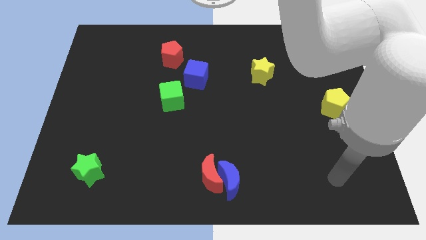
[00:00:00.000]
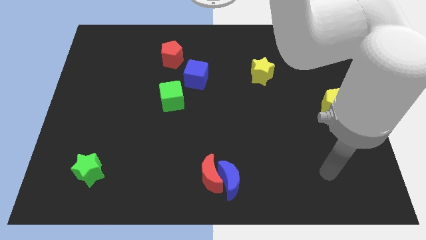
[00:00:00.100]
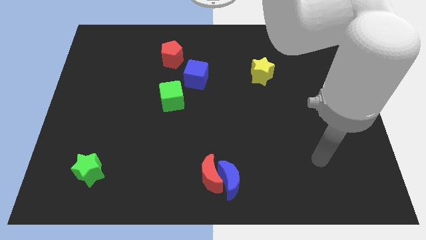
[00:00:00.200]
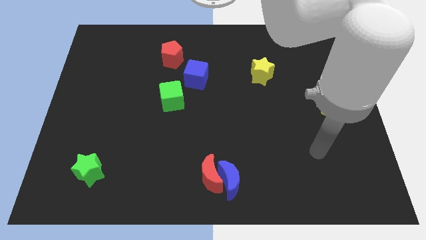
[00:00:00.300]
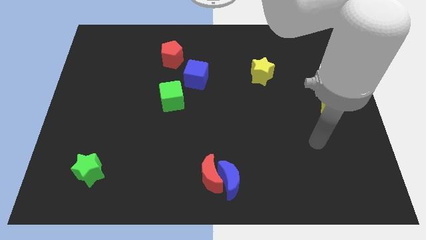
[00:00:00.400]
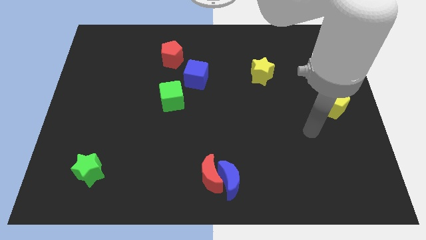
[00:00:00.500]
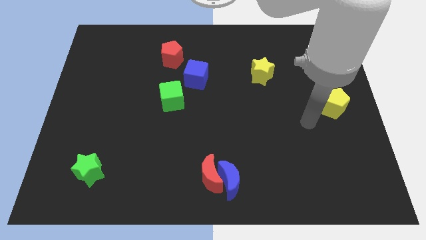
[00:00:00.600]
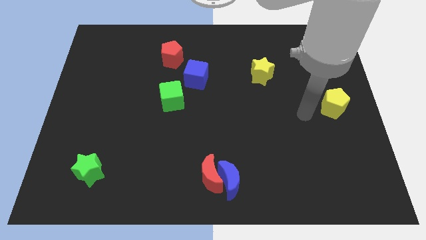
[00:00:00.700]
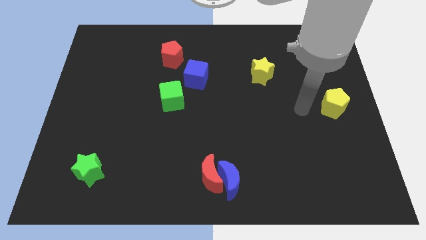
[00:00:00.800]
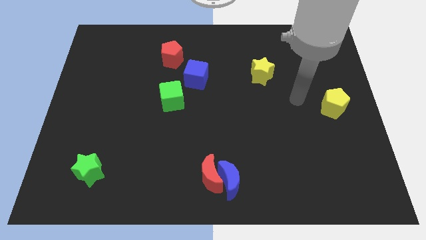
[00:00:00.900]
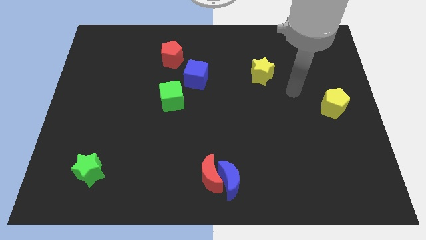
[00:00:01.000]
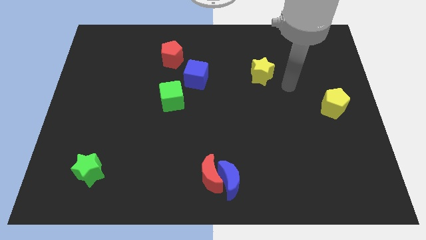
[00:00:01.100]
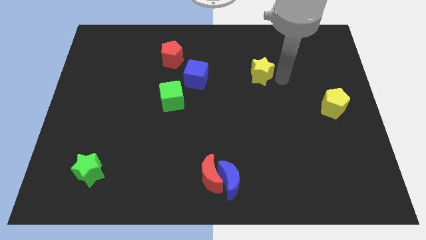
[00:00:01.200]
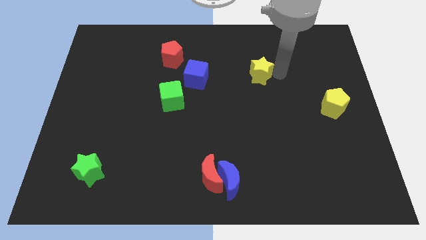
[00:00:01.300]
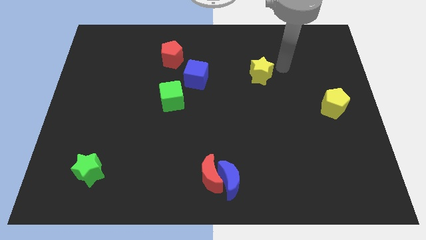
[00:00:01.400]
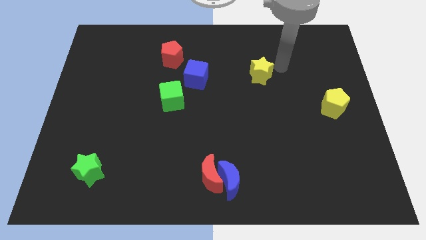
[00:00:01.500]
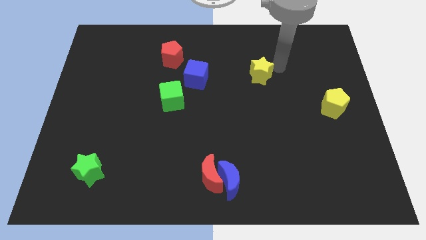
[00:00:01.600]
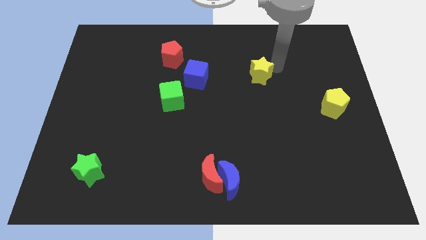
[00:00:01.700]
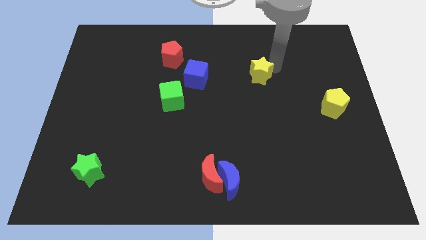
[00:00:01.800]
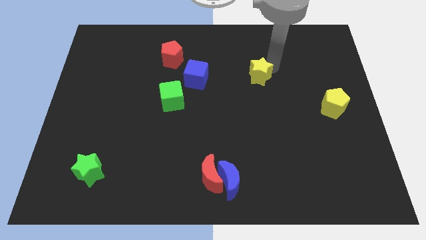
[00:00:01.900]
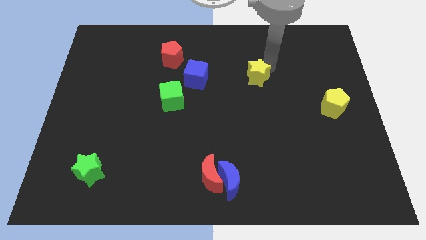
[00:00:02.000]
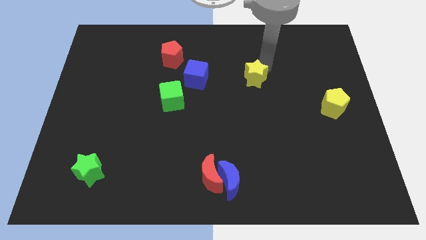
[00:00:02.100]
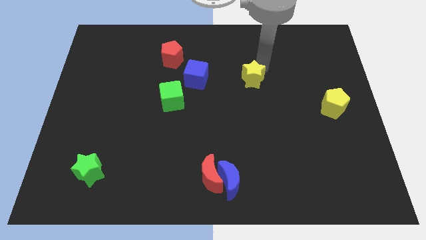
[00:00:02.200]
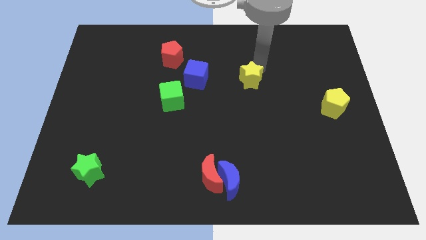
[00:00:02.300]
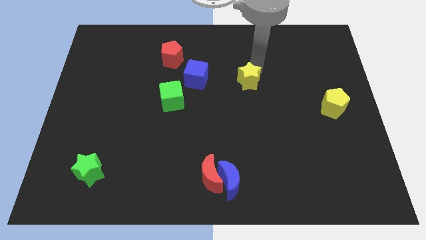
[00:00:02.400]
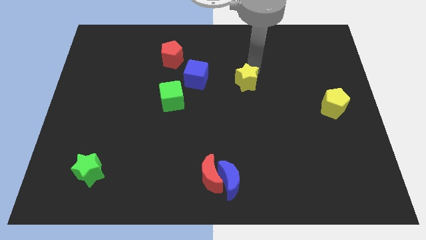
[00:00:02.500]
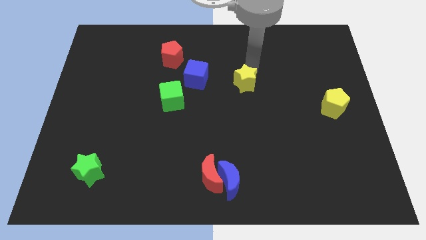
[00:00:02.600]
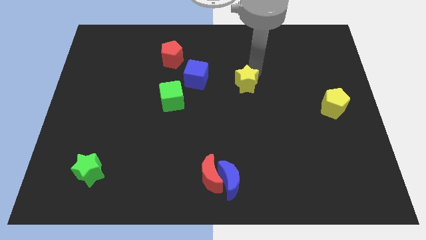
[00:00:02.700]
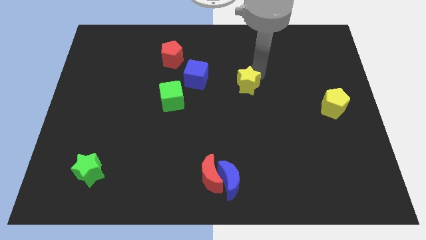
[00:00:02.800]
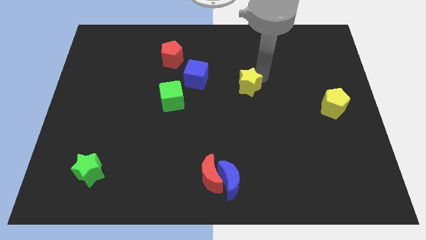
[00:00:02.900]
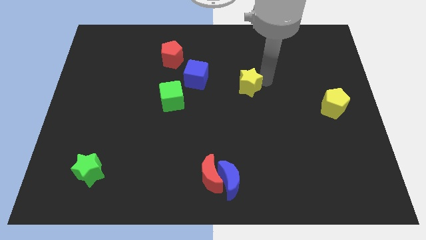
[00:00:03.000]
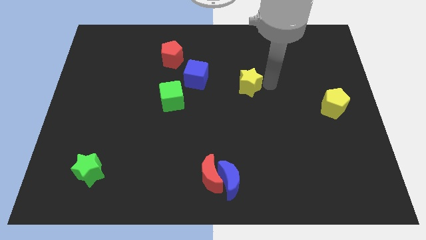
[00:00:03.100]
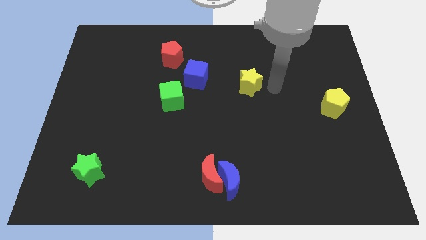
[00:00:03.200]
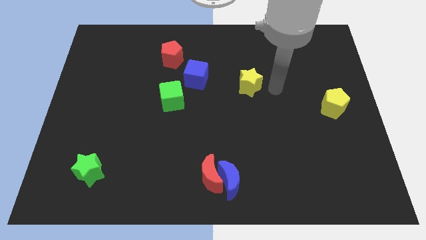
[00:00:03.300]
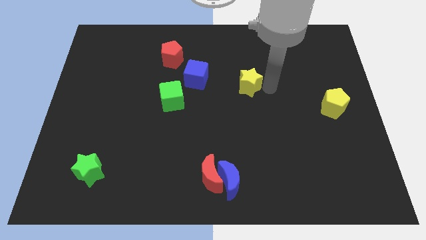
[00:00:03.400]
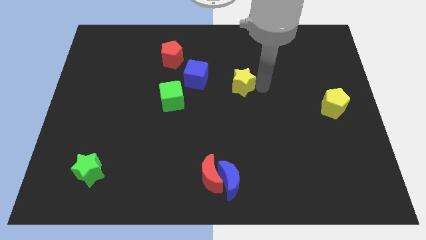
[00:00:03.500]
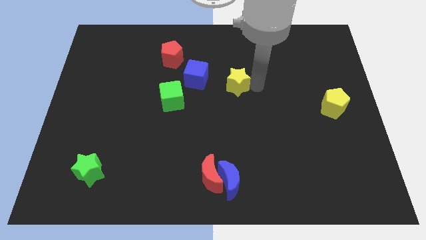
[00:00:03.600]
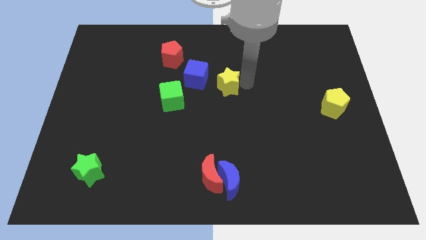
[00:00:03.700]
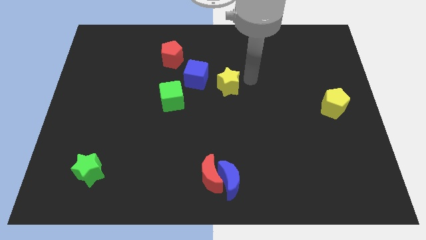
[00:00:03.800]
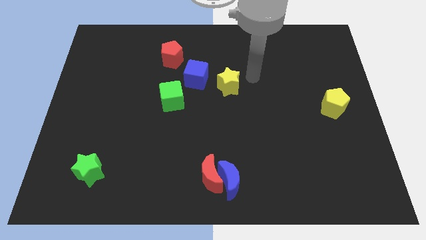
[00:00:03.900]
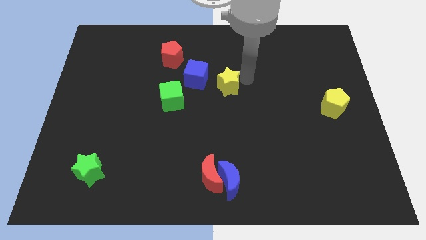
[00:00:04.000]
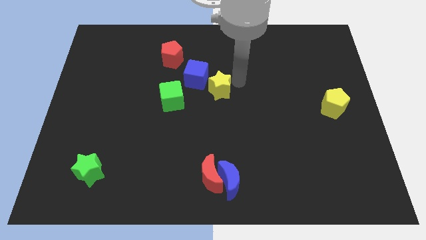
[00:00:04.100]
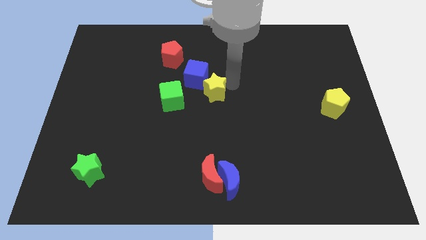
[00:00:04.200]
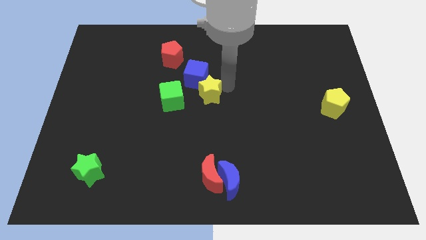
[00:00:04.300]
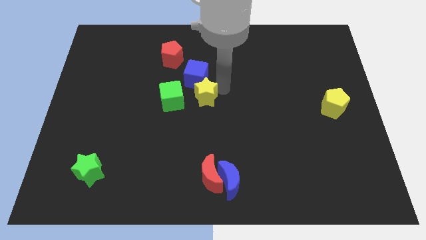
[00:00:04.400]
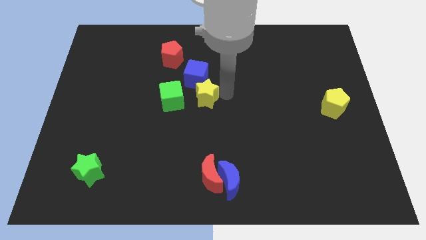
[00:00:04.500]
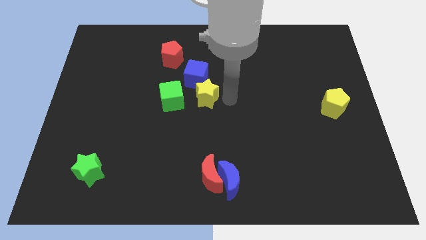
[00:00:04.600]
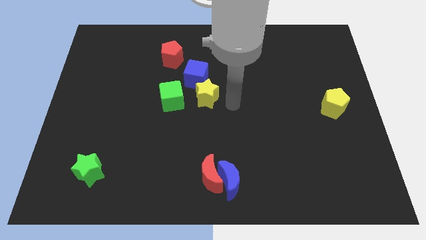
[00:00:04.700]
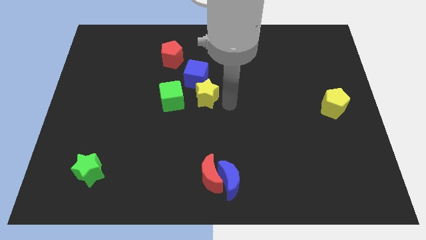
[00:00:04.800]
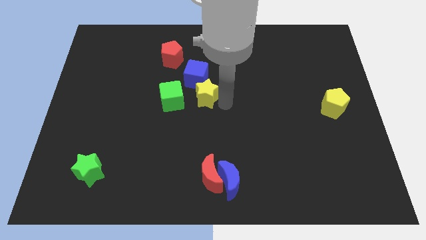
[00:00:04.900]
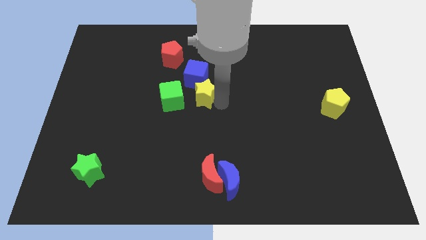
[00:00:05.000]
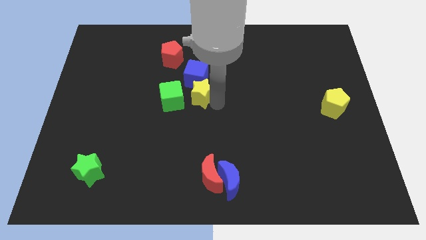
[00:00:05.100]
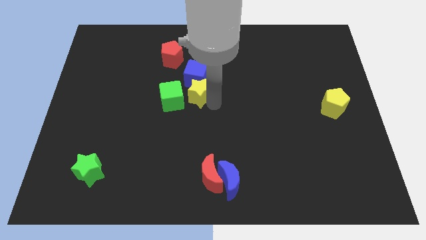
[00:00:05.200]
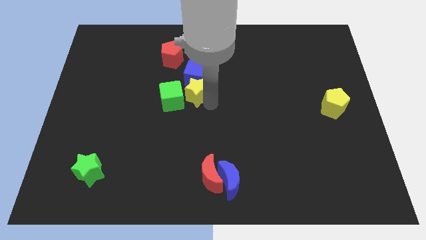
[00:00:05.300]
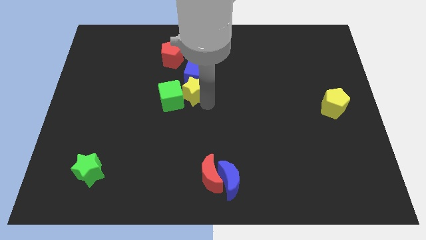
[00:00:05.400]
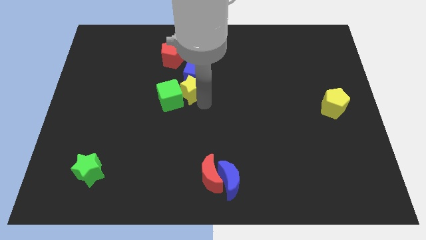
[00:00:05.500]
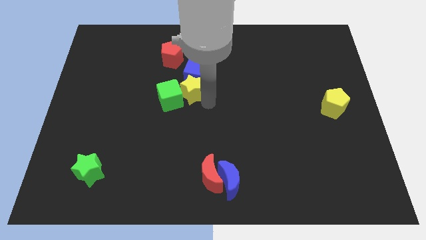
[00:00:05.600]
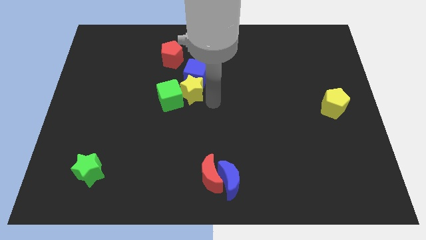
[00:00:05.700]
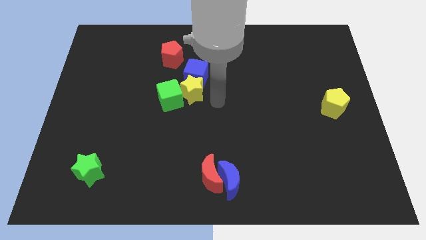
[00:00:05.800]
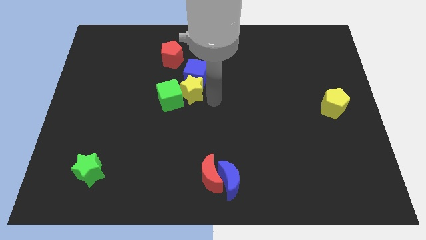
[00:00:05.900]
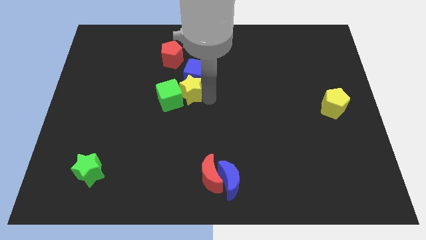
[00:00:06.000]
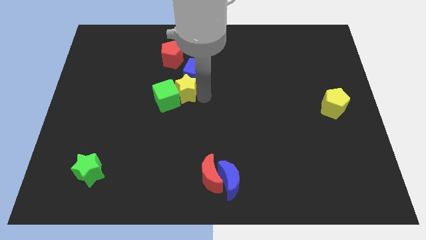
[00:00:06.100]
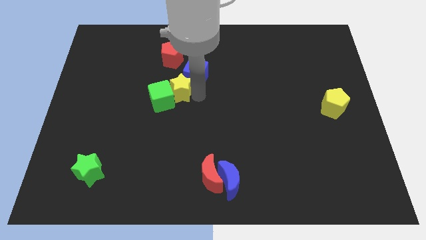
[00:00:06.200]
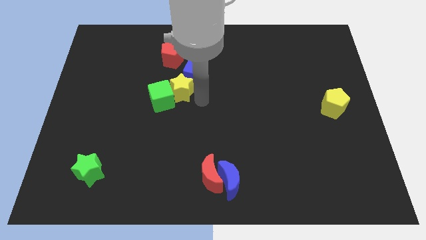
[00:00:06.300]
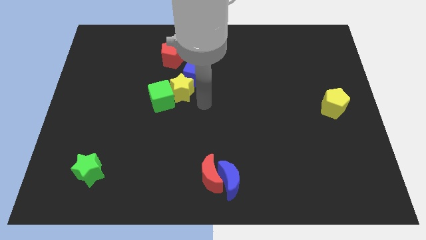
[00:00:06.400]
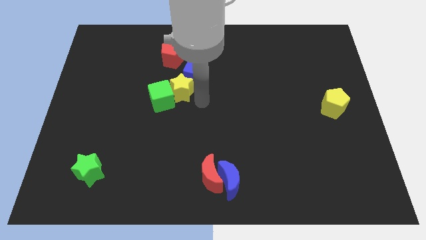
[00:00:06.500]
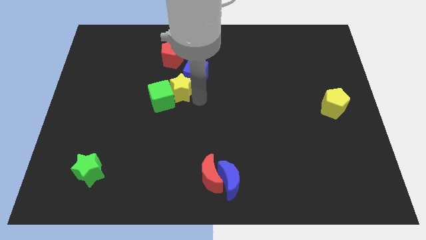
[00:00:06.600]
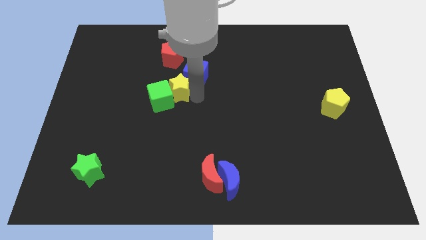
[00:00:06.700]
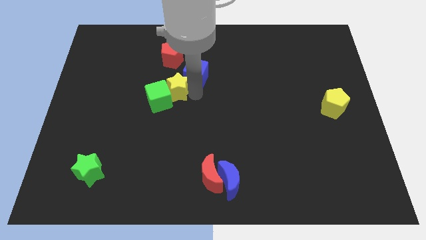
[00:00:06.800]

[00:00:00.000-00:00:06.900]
slide the yellow star left of the blue cube

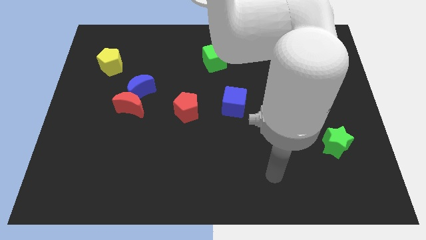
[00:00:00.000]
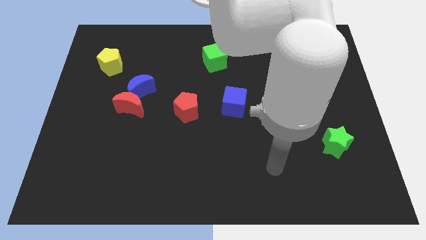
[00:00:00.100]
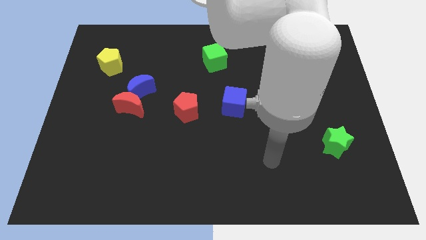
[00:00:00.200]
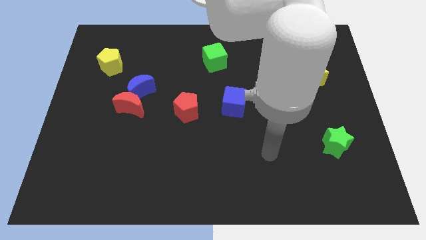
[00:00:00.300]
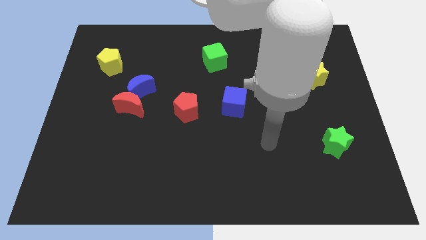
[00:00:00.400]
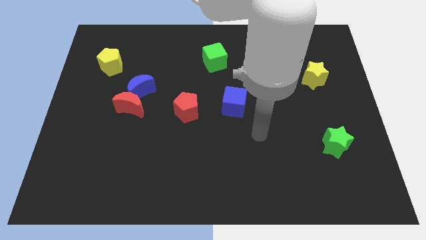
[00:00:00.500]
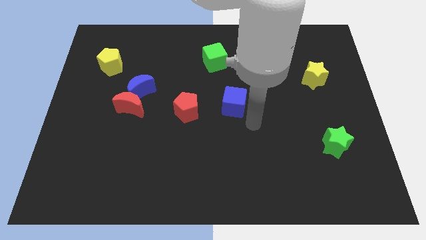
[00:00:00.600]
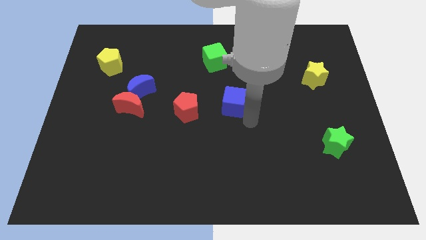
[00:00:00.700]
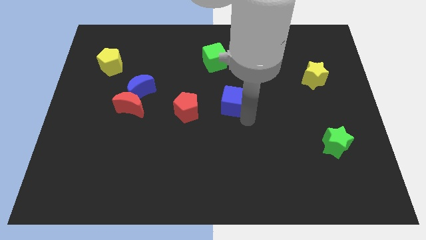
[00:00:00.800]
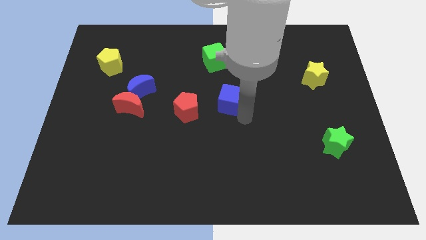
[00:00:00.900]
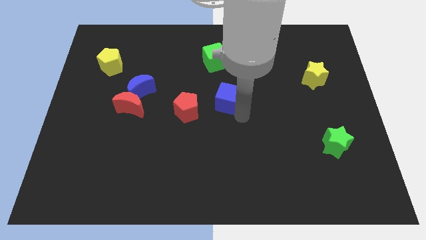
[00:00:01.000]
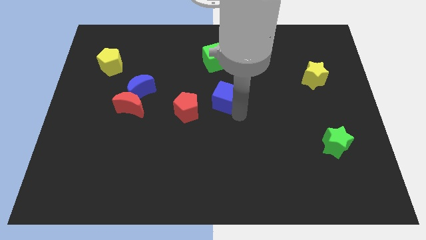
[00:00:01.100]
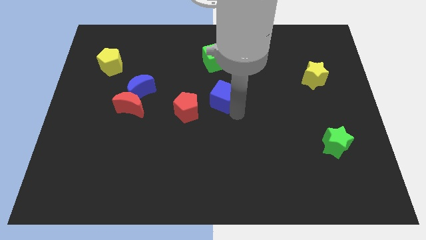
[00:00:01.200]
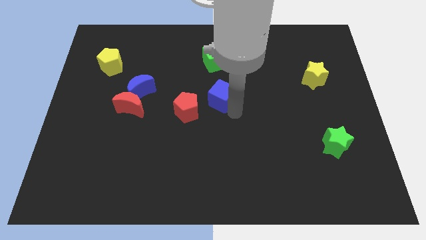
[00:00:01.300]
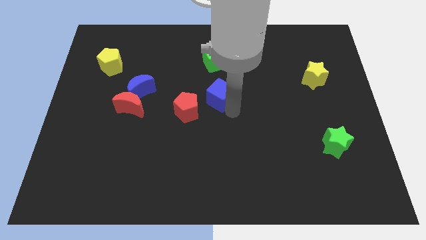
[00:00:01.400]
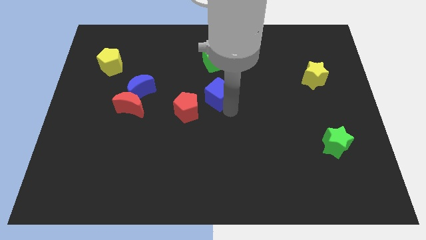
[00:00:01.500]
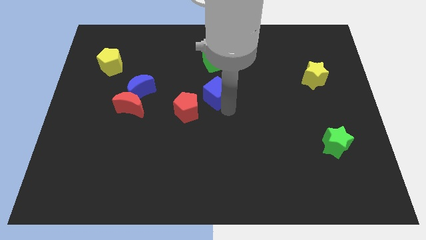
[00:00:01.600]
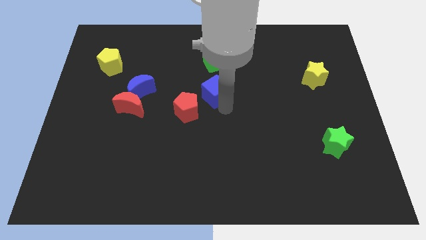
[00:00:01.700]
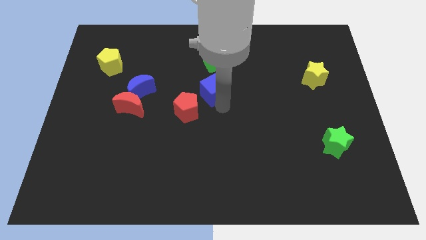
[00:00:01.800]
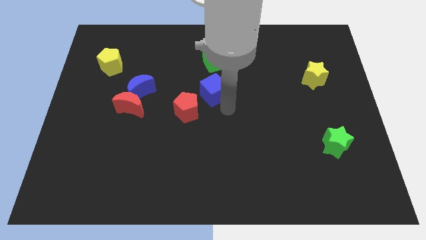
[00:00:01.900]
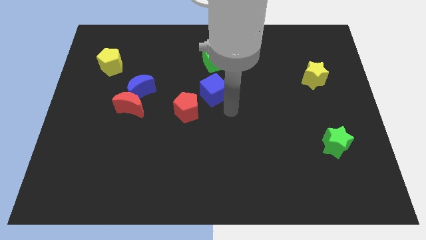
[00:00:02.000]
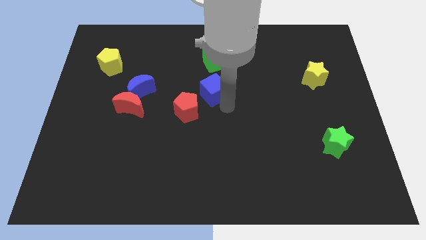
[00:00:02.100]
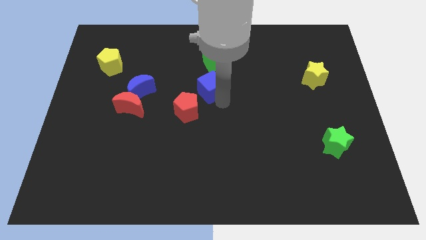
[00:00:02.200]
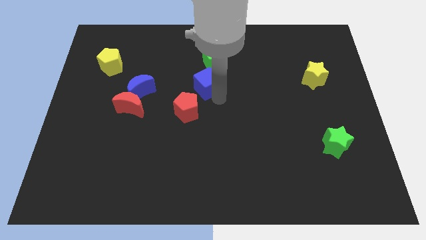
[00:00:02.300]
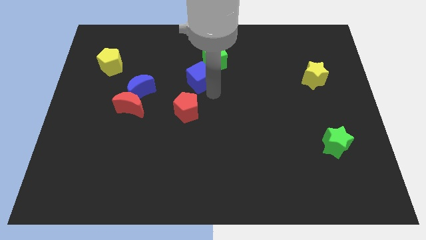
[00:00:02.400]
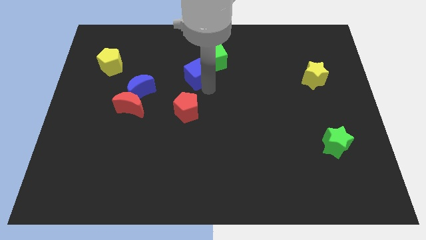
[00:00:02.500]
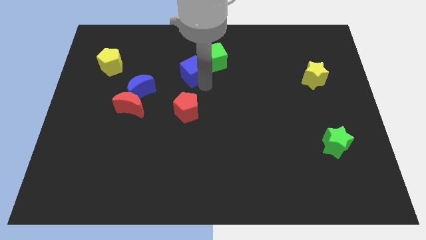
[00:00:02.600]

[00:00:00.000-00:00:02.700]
put the blue cube to the left side of the green cube
